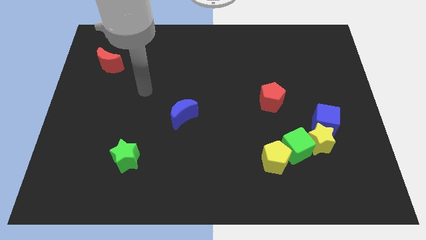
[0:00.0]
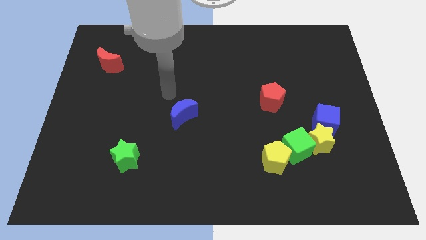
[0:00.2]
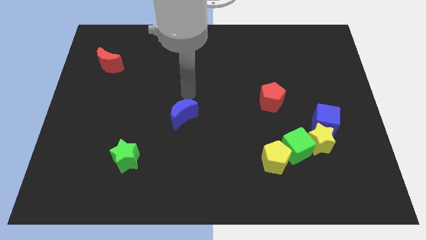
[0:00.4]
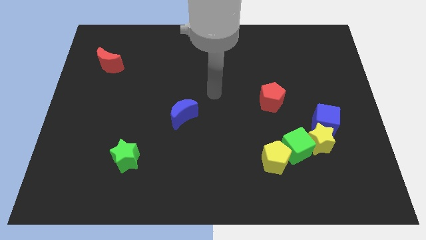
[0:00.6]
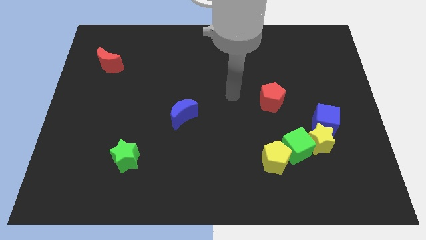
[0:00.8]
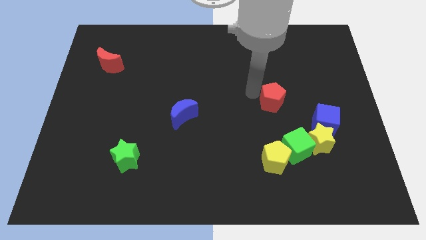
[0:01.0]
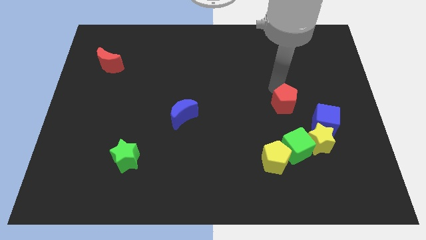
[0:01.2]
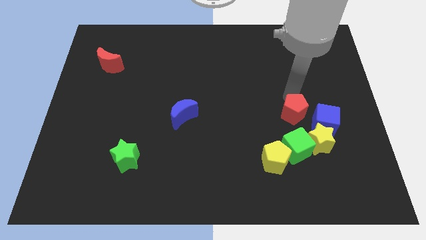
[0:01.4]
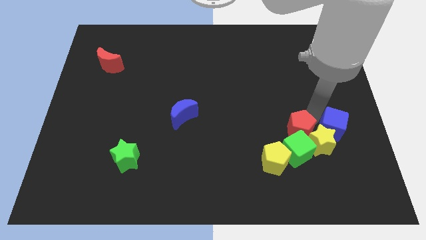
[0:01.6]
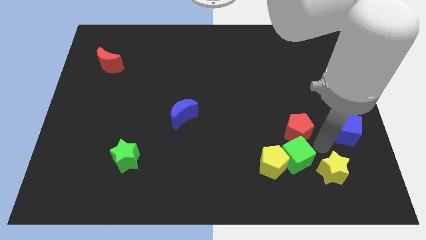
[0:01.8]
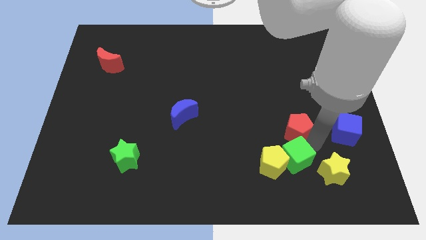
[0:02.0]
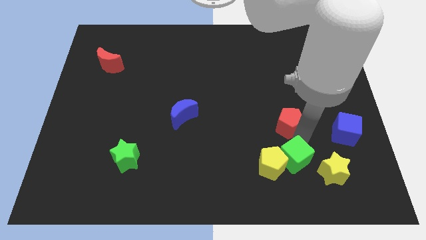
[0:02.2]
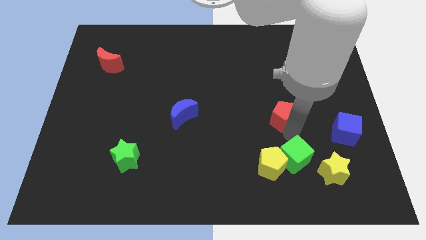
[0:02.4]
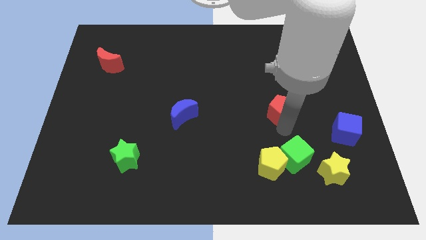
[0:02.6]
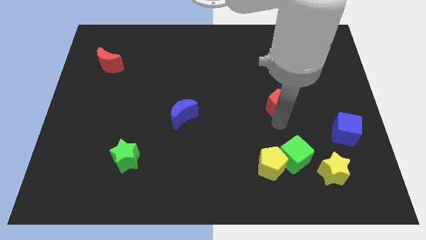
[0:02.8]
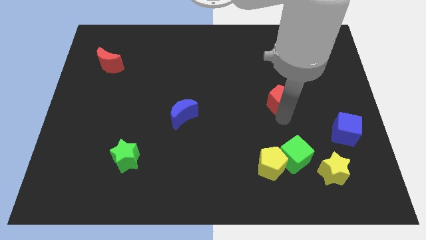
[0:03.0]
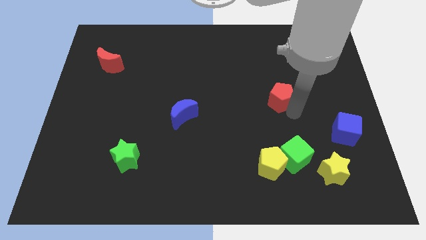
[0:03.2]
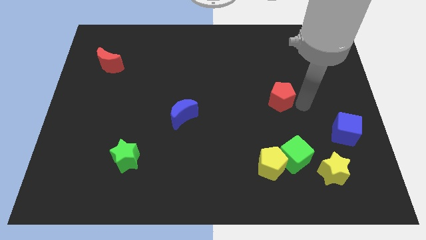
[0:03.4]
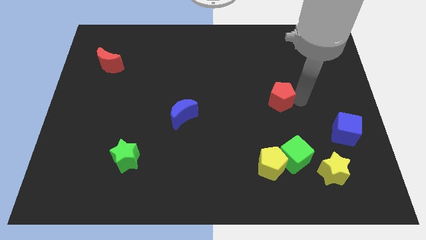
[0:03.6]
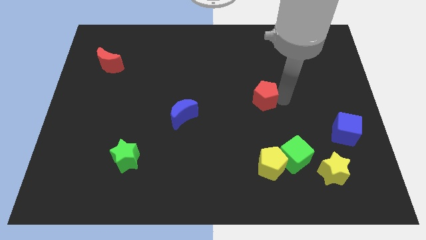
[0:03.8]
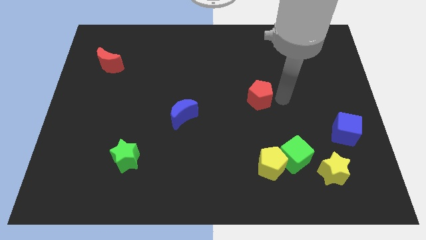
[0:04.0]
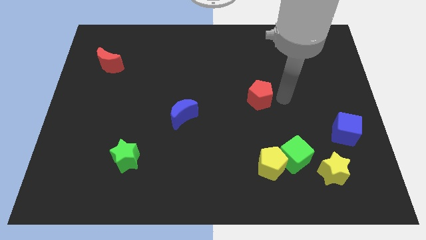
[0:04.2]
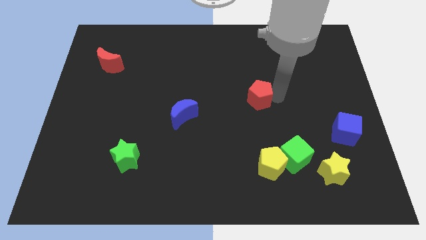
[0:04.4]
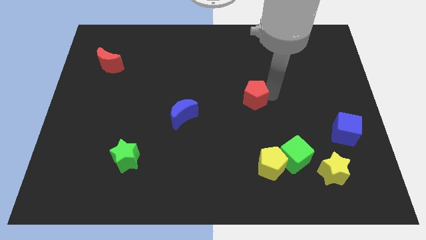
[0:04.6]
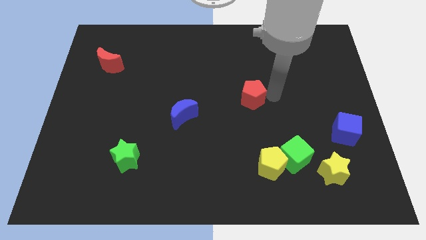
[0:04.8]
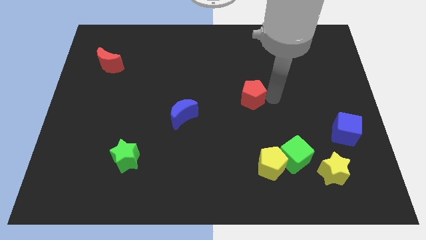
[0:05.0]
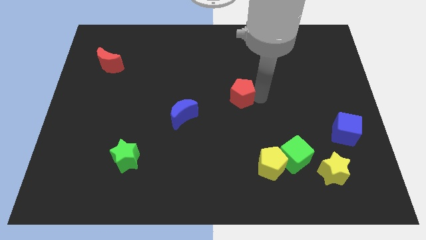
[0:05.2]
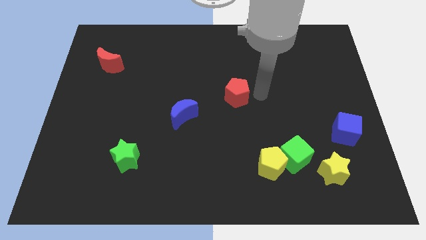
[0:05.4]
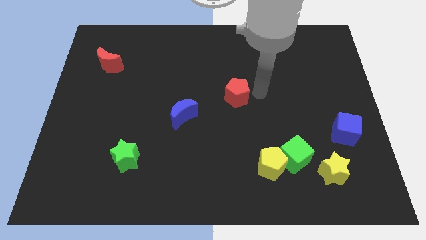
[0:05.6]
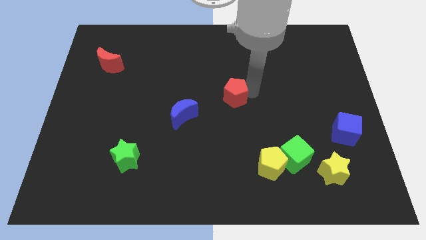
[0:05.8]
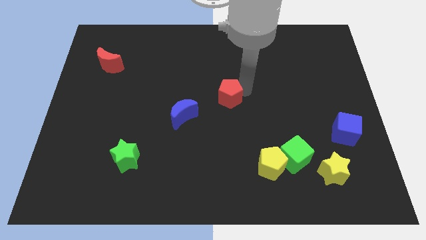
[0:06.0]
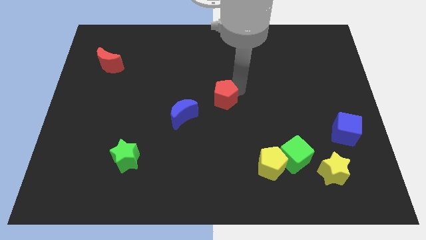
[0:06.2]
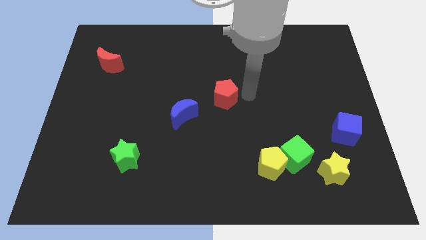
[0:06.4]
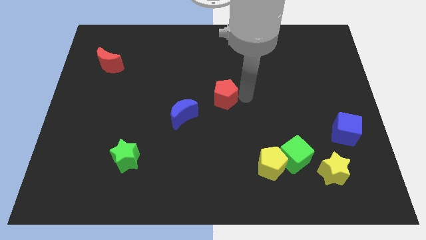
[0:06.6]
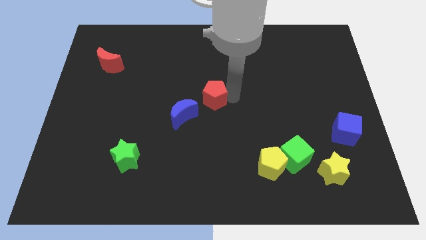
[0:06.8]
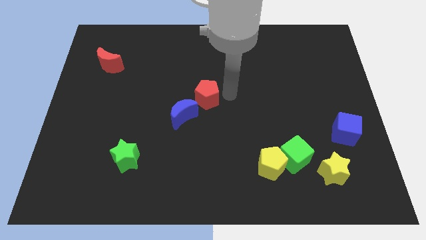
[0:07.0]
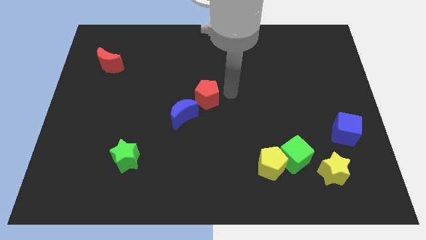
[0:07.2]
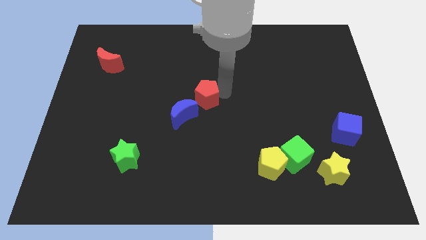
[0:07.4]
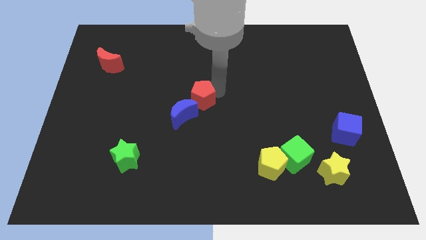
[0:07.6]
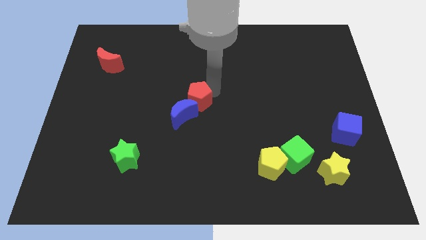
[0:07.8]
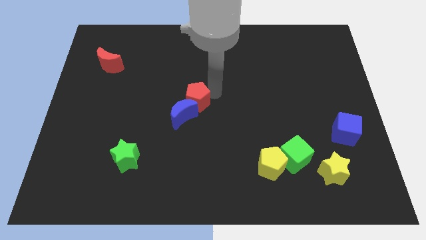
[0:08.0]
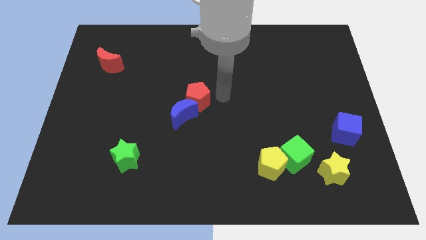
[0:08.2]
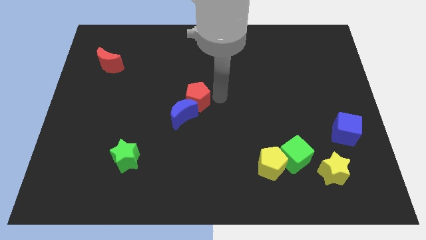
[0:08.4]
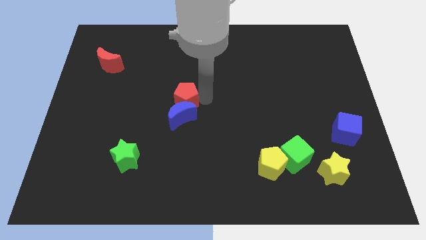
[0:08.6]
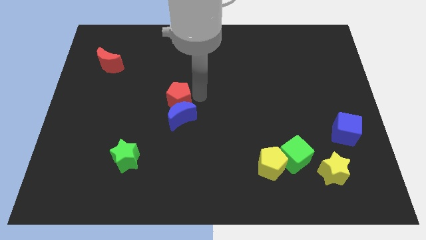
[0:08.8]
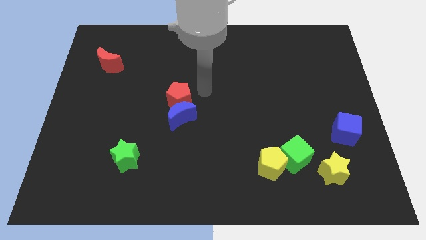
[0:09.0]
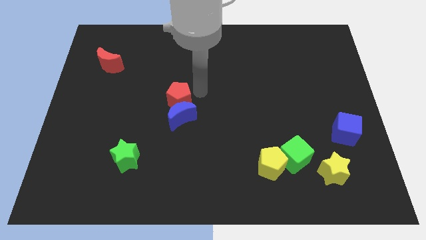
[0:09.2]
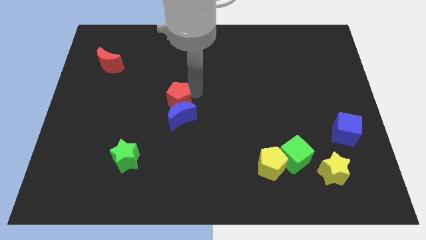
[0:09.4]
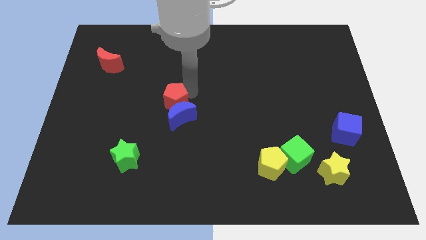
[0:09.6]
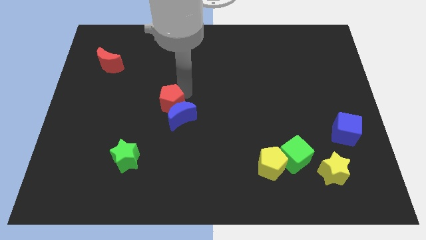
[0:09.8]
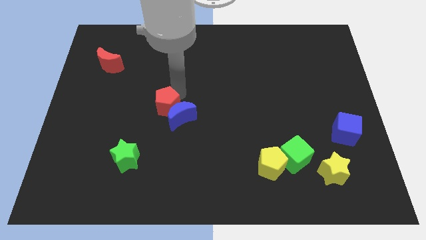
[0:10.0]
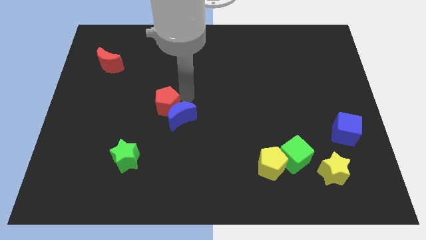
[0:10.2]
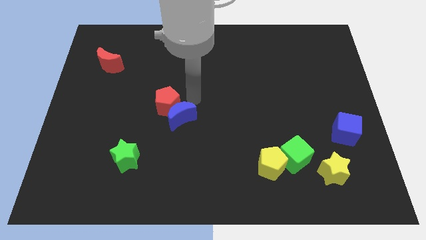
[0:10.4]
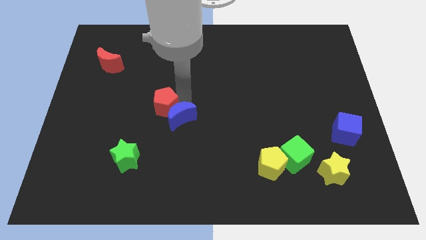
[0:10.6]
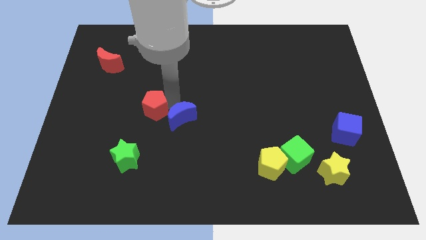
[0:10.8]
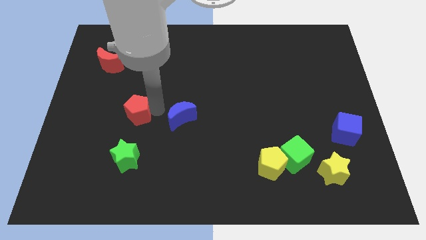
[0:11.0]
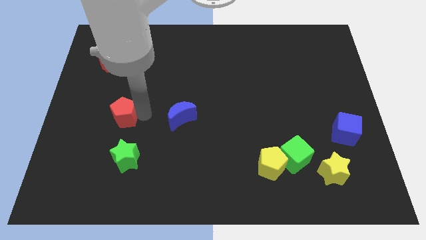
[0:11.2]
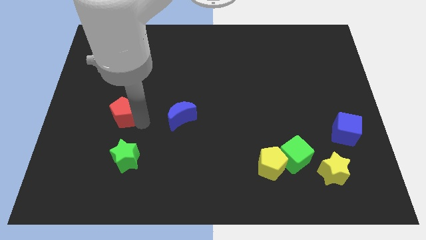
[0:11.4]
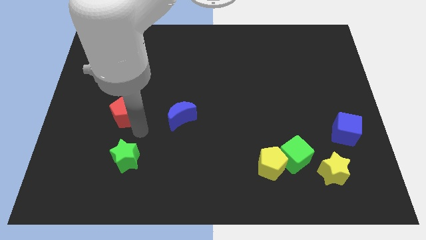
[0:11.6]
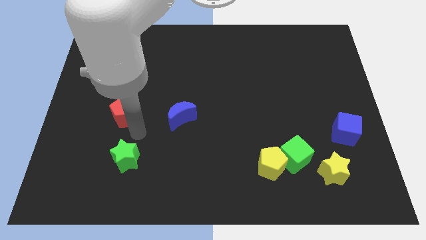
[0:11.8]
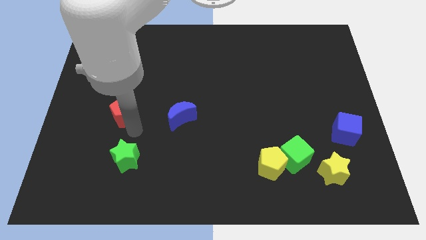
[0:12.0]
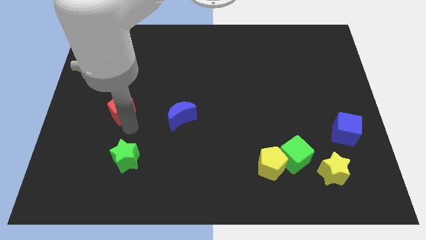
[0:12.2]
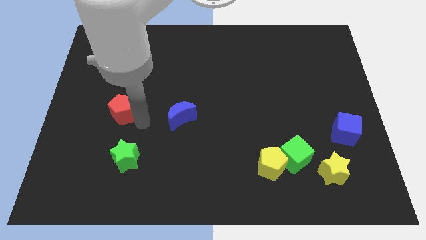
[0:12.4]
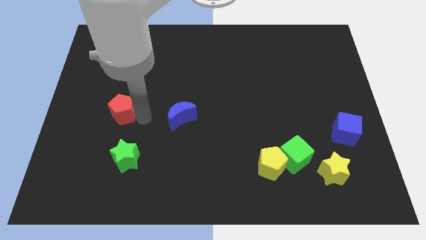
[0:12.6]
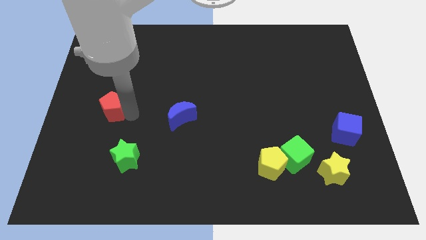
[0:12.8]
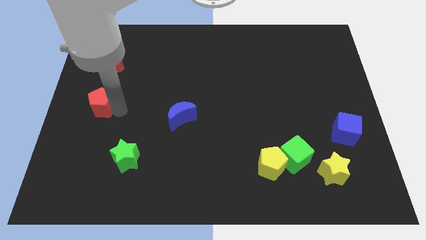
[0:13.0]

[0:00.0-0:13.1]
slide the red pentagon to the left side

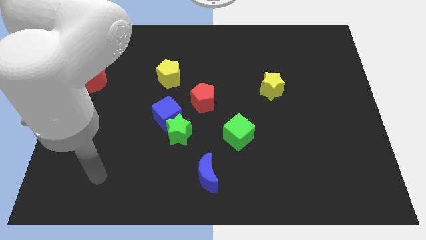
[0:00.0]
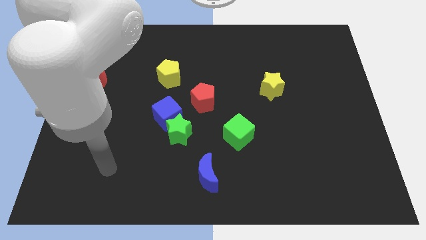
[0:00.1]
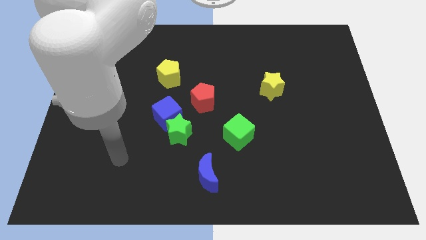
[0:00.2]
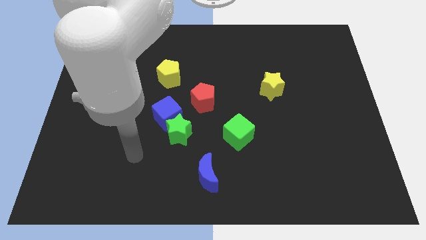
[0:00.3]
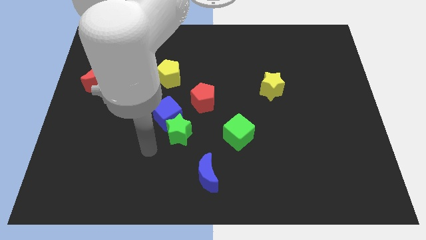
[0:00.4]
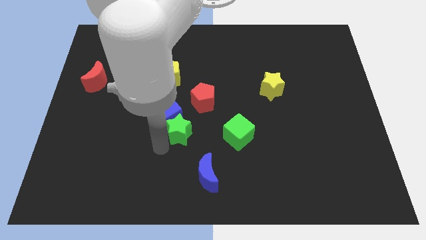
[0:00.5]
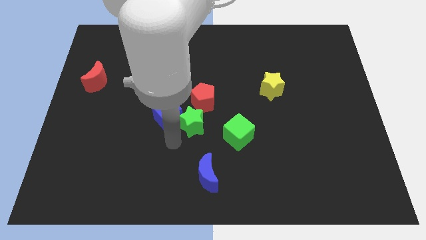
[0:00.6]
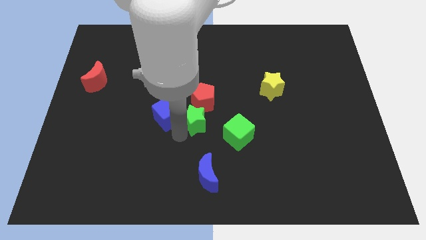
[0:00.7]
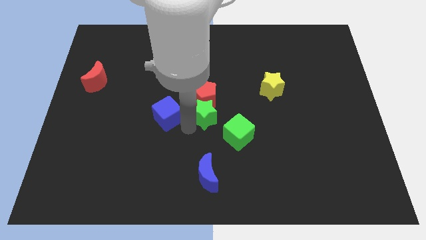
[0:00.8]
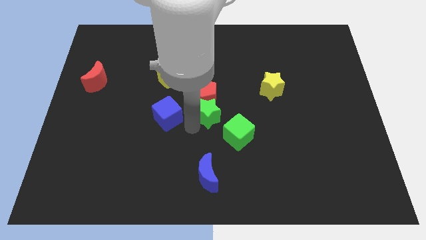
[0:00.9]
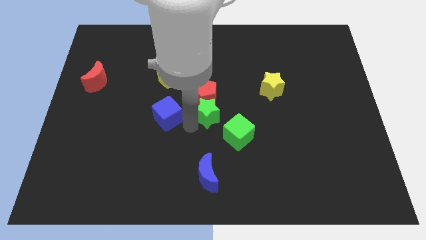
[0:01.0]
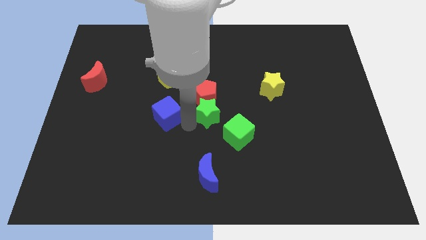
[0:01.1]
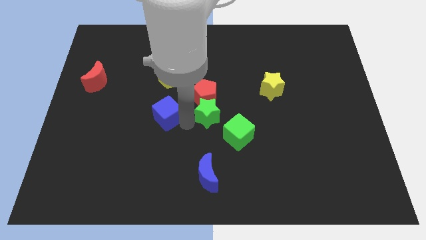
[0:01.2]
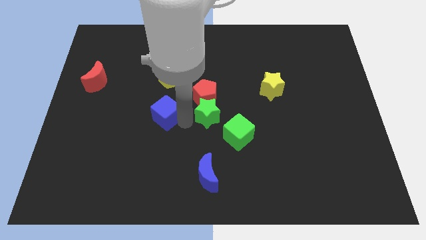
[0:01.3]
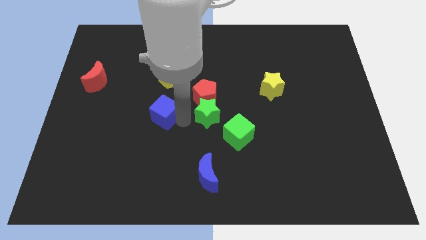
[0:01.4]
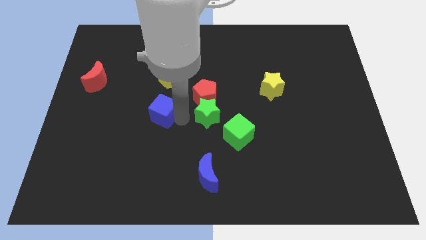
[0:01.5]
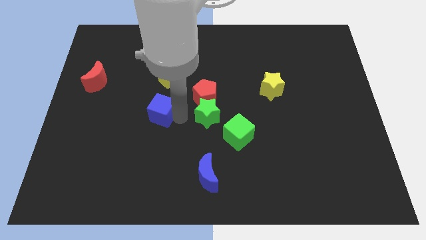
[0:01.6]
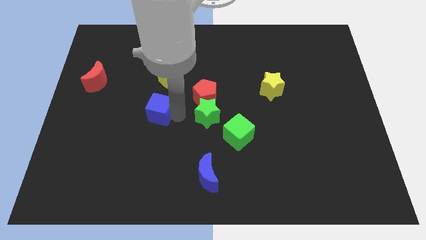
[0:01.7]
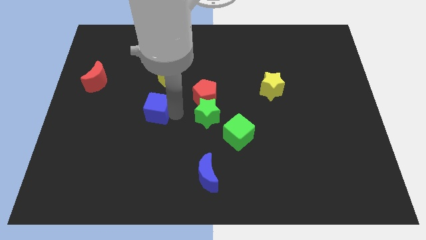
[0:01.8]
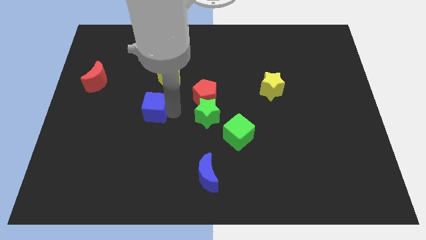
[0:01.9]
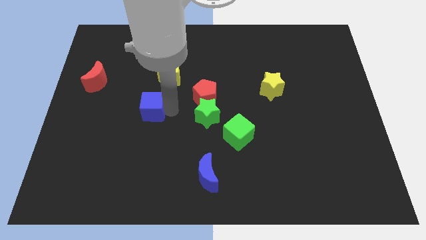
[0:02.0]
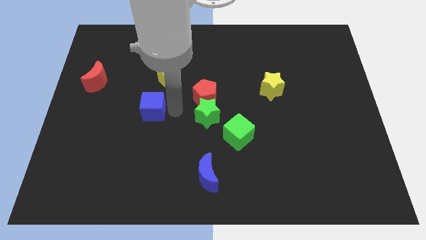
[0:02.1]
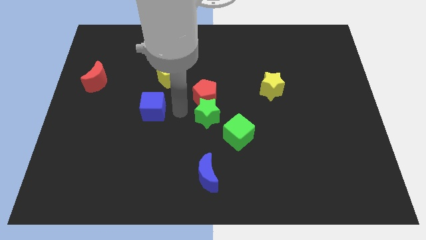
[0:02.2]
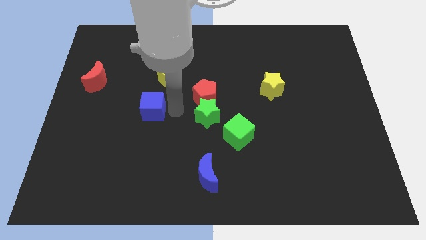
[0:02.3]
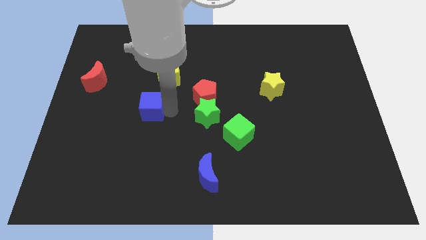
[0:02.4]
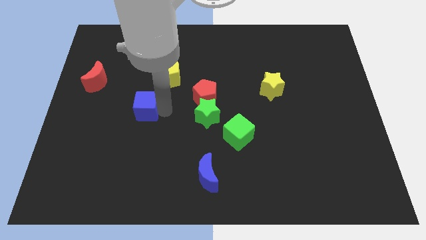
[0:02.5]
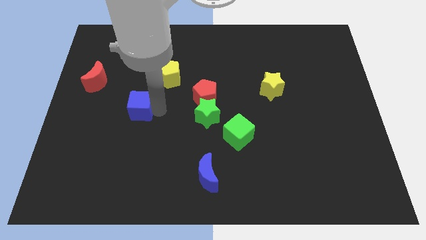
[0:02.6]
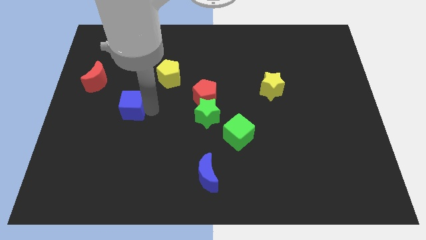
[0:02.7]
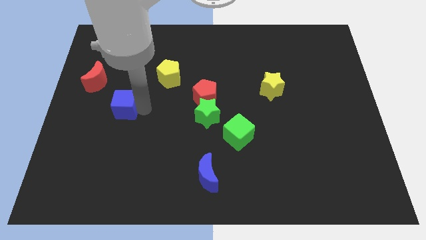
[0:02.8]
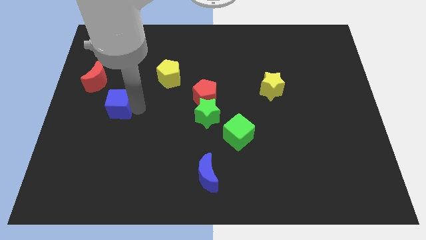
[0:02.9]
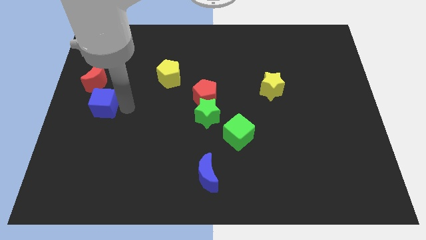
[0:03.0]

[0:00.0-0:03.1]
move the blue cube to the left side
